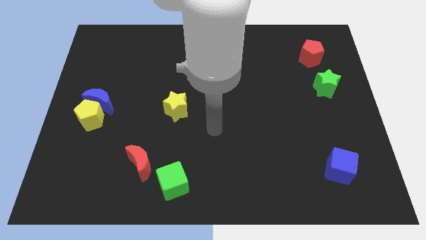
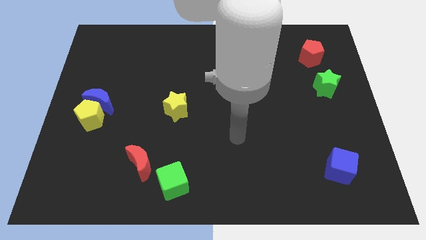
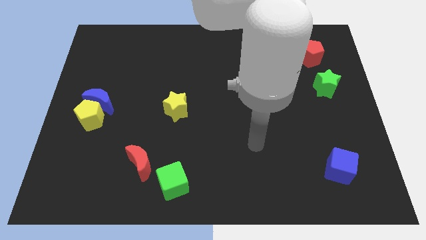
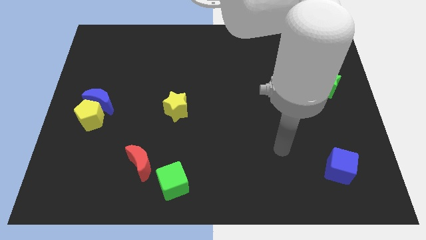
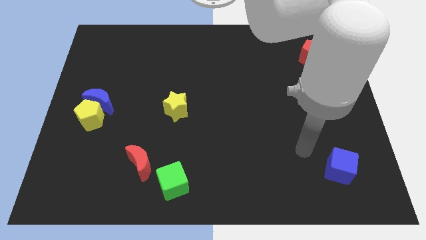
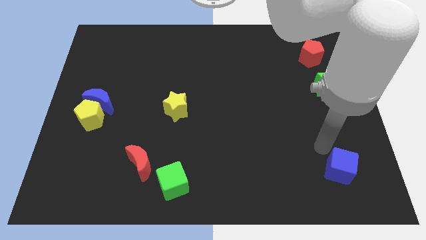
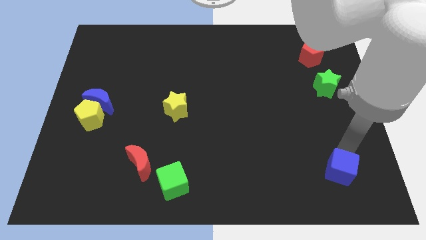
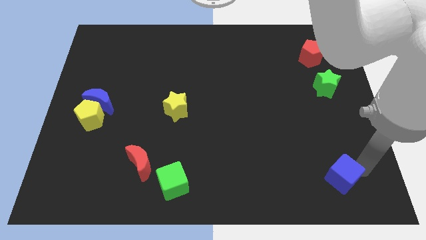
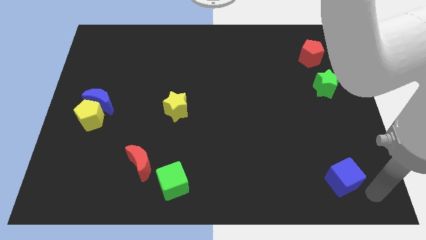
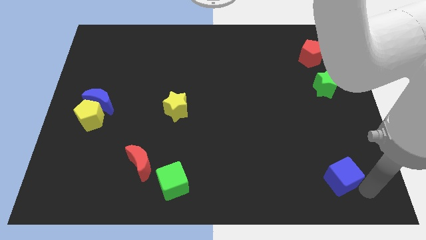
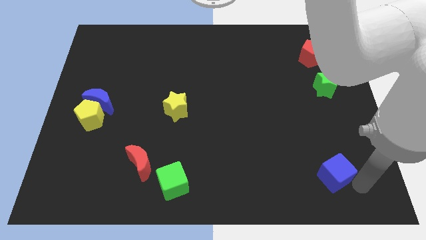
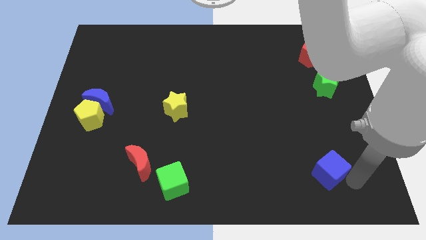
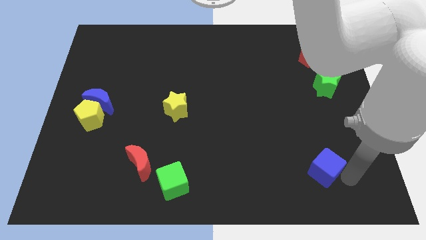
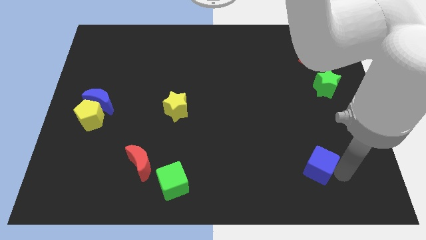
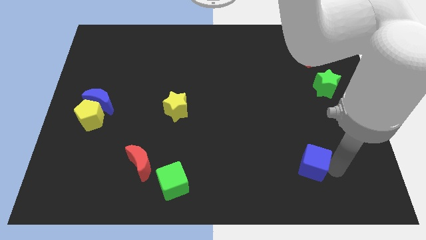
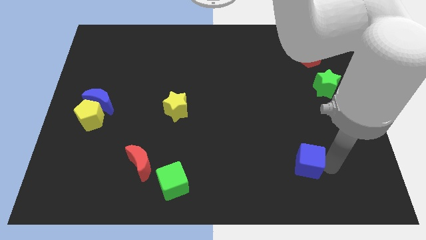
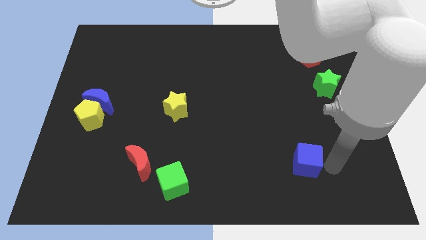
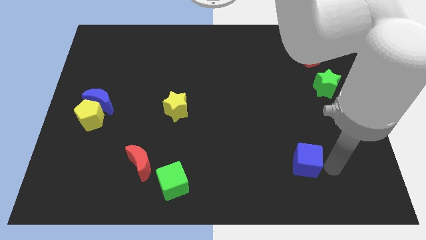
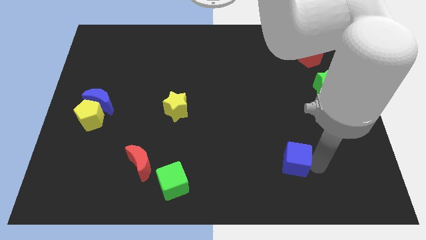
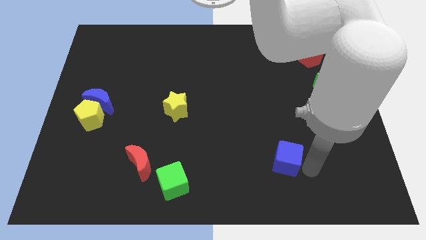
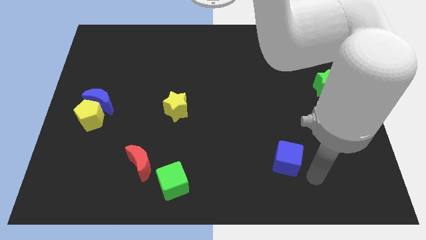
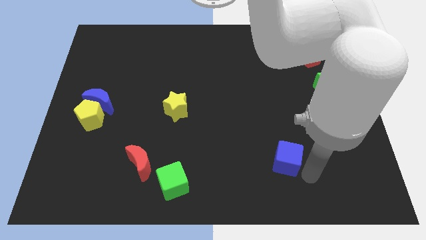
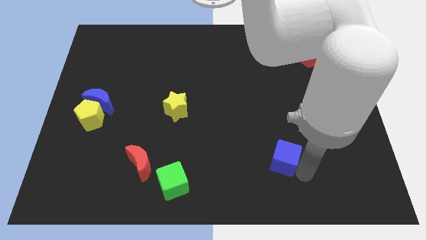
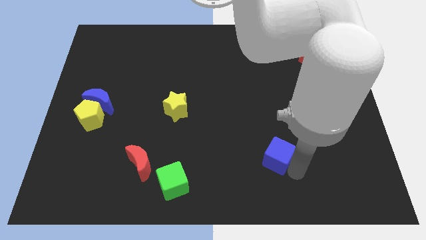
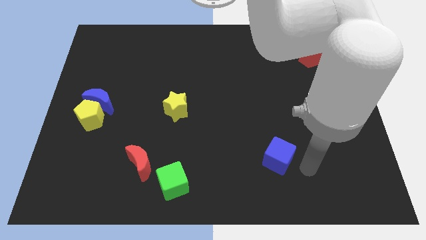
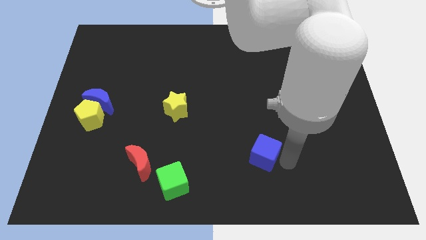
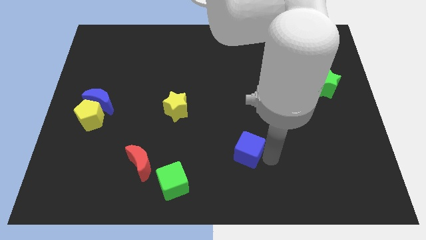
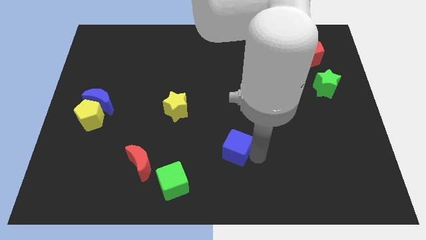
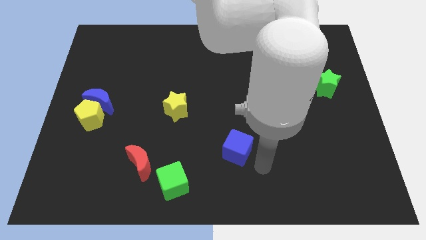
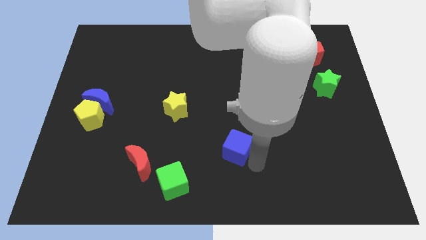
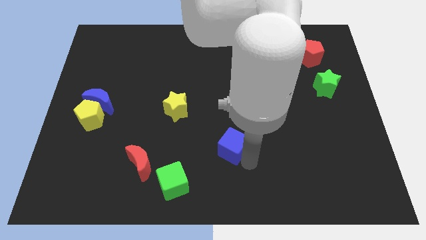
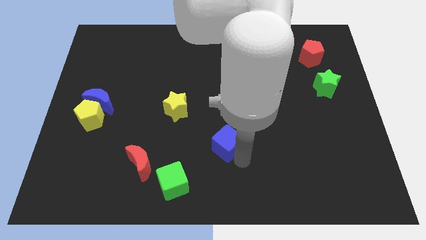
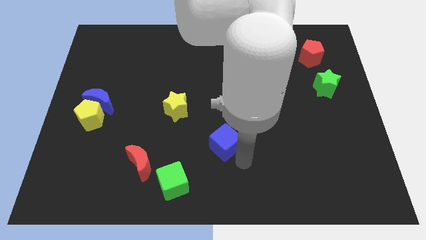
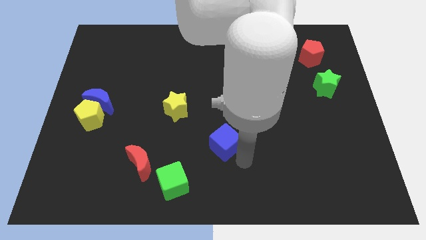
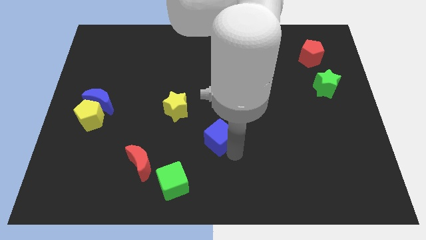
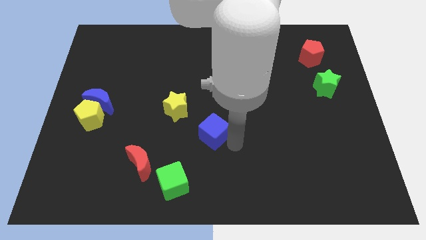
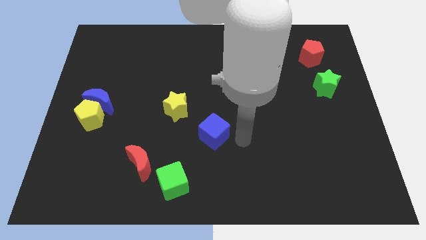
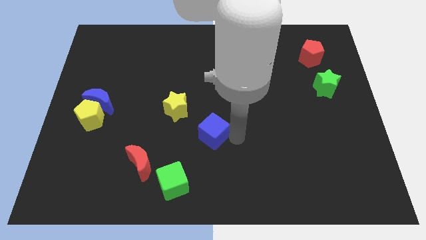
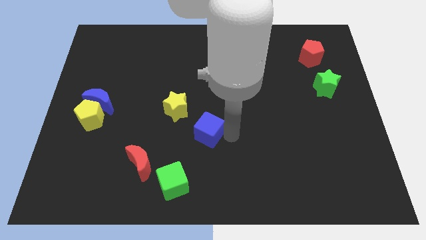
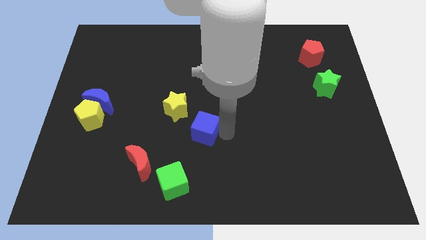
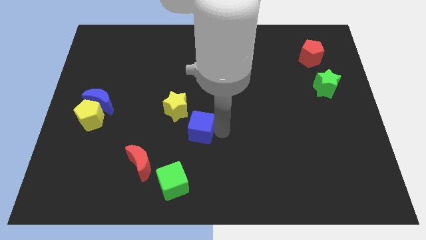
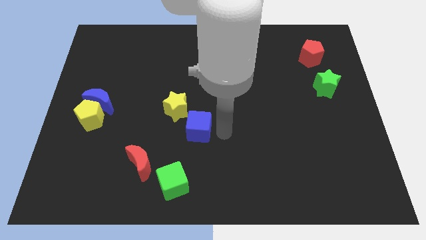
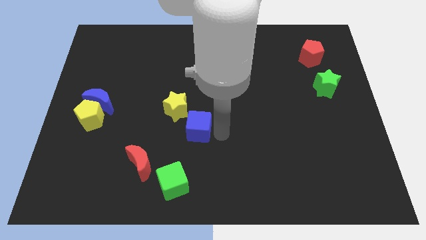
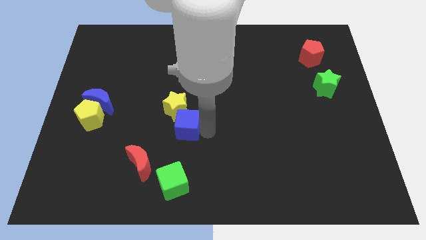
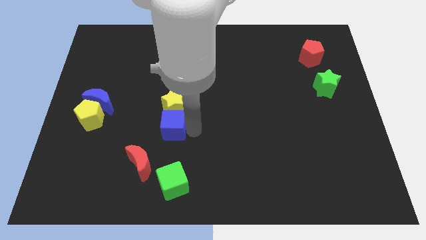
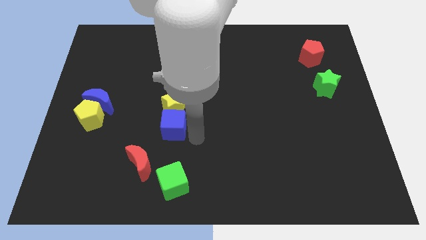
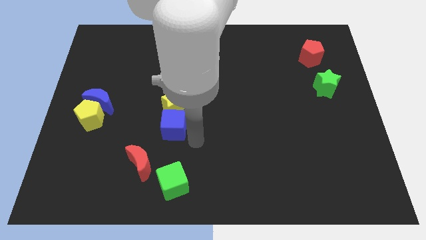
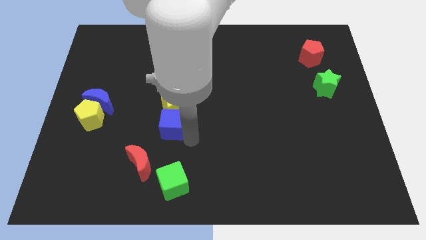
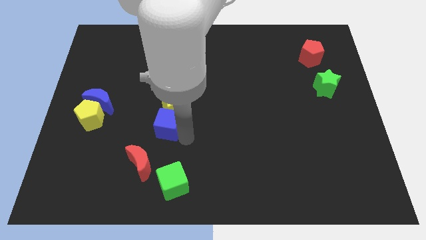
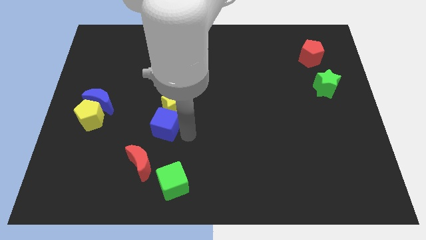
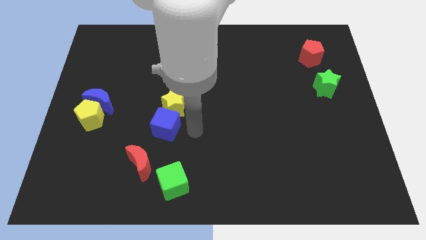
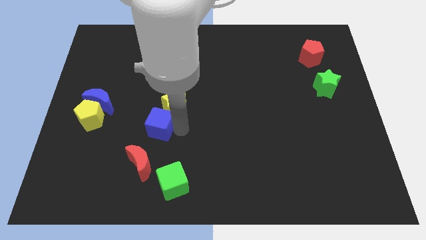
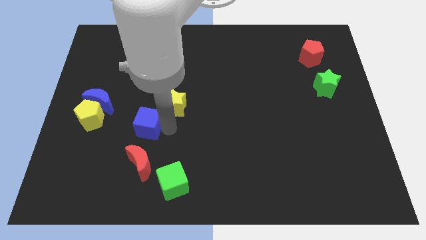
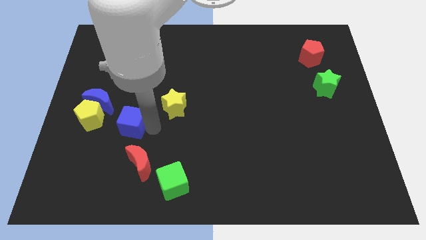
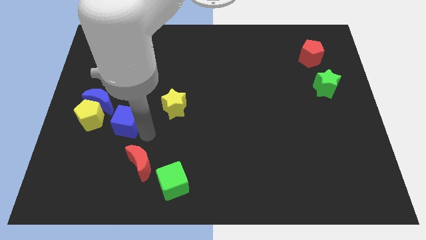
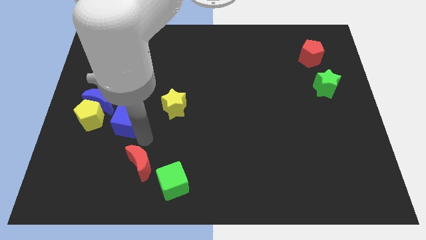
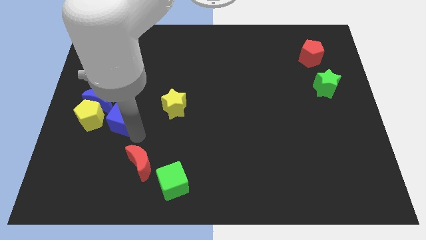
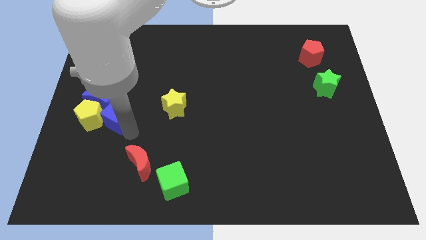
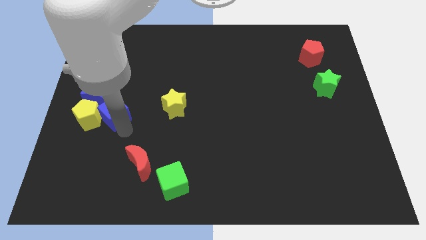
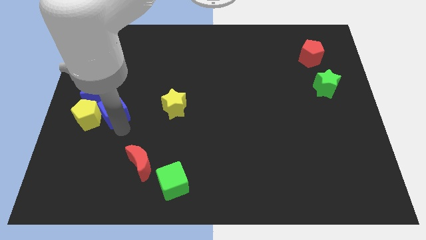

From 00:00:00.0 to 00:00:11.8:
slide the blue cube close to the blue moon

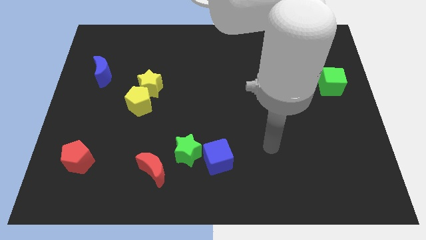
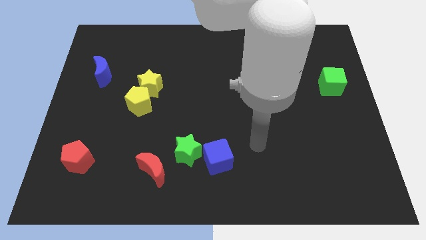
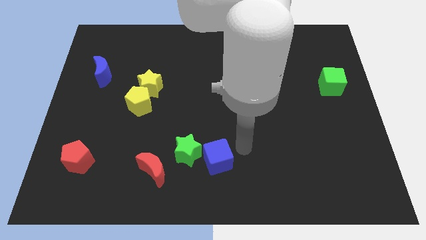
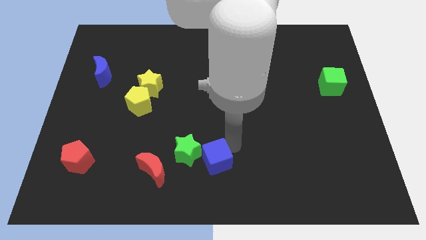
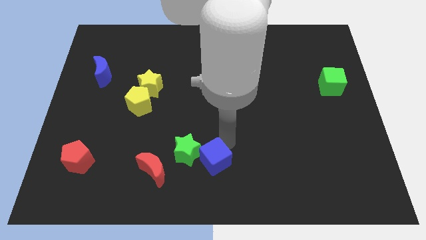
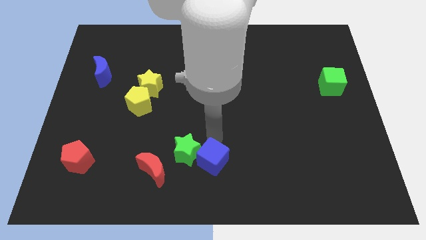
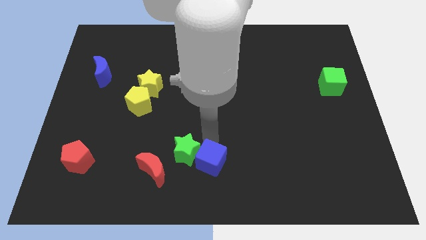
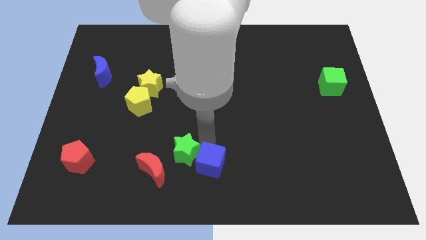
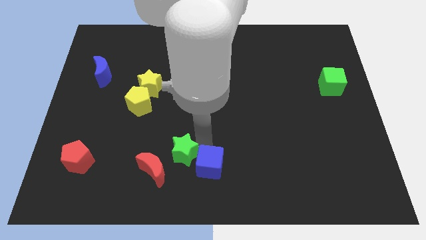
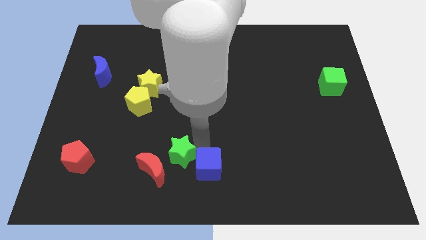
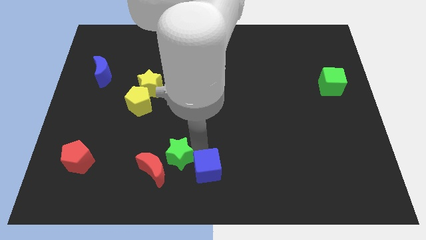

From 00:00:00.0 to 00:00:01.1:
put the green star close to the red moon
